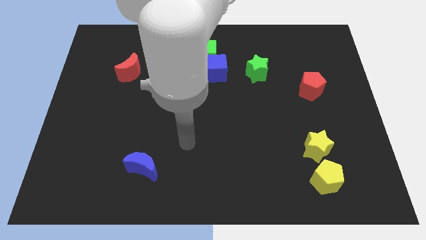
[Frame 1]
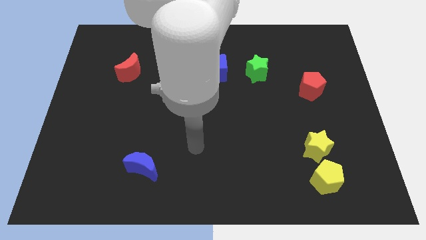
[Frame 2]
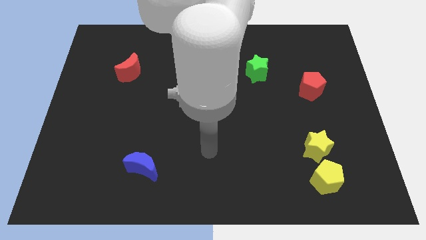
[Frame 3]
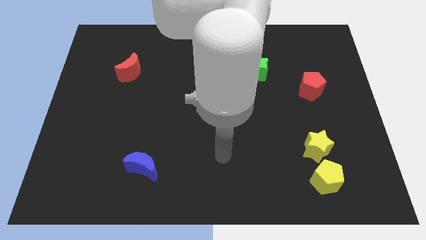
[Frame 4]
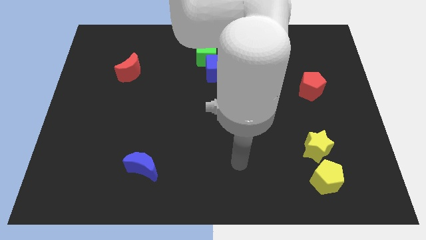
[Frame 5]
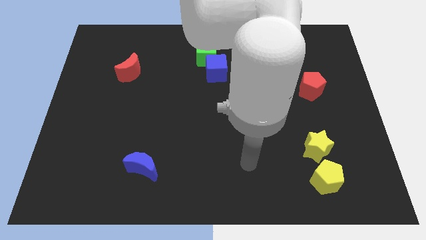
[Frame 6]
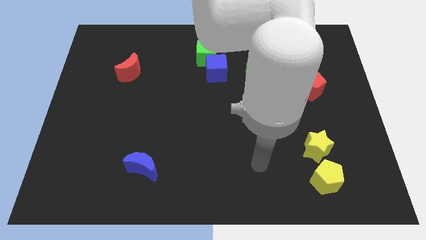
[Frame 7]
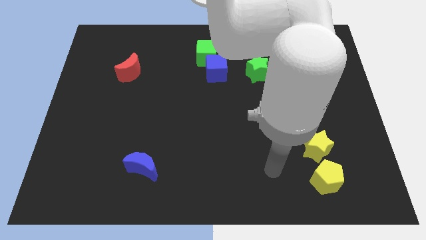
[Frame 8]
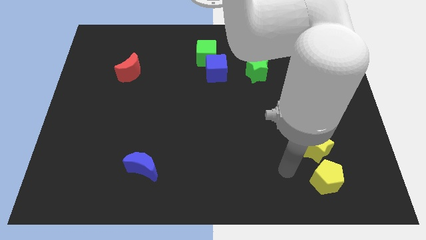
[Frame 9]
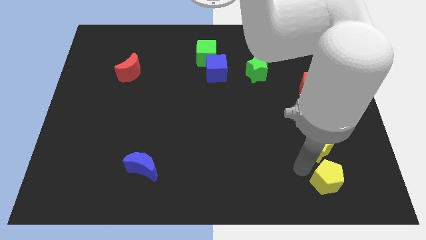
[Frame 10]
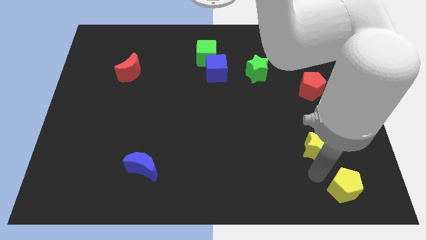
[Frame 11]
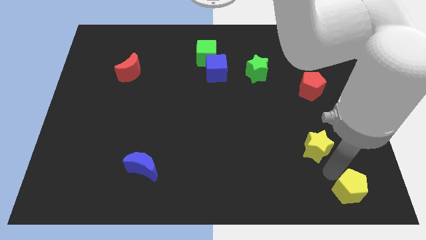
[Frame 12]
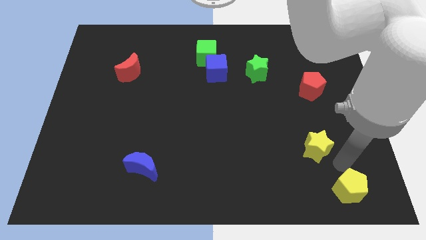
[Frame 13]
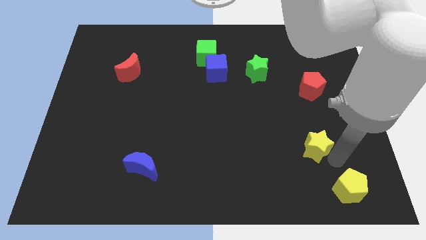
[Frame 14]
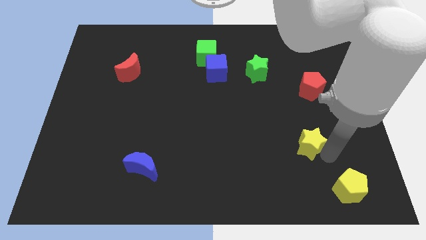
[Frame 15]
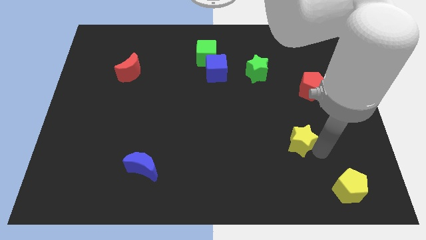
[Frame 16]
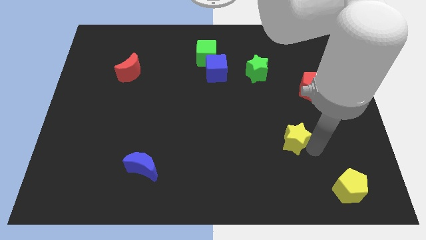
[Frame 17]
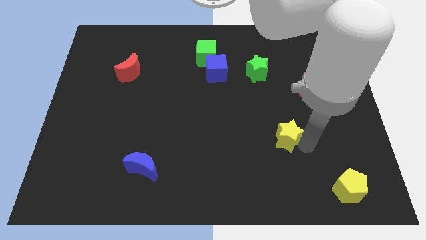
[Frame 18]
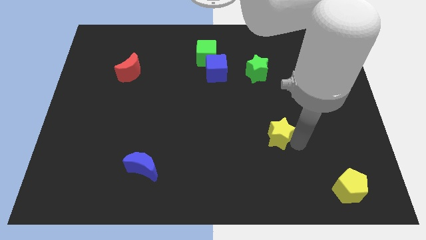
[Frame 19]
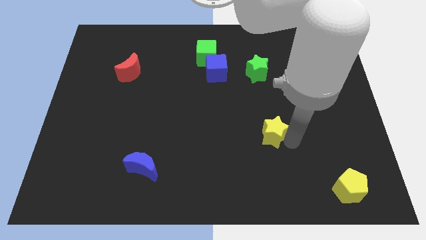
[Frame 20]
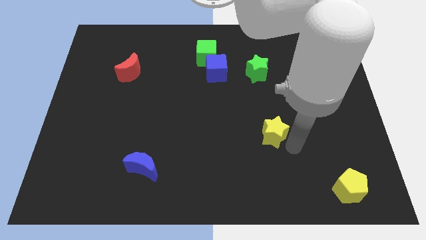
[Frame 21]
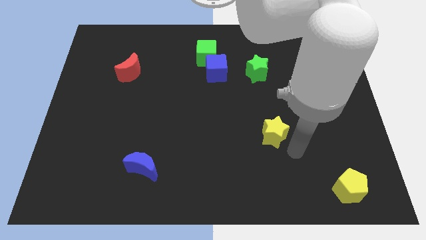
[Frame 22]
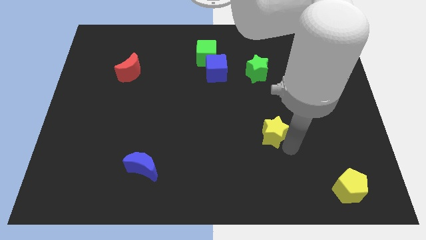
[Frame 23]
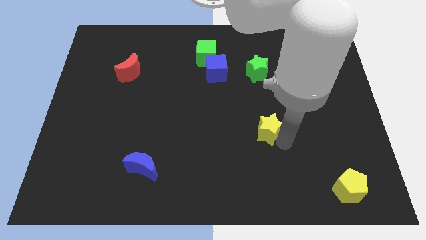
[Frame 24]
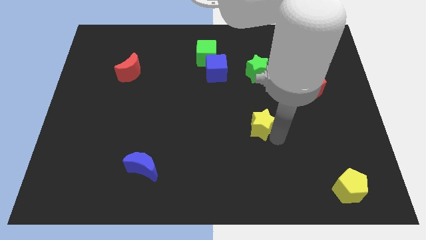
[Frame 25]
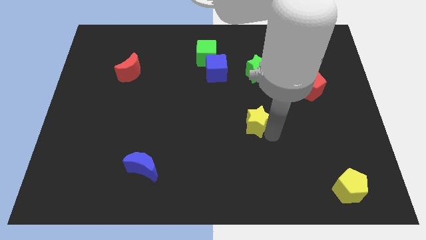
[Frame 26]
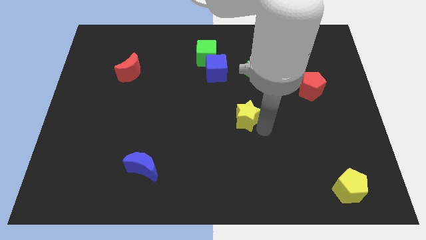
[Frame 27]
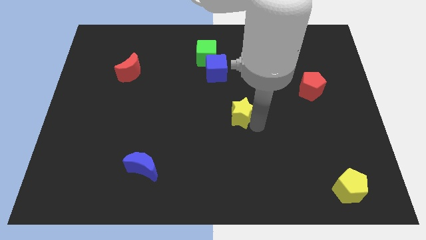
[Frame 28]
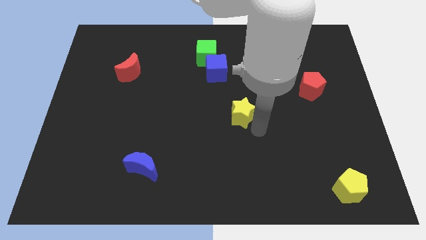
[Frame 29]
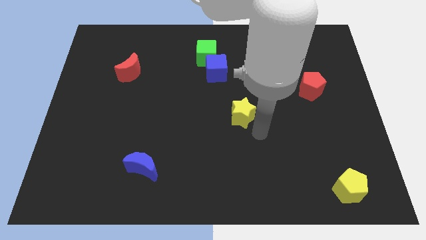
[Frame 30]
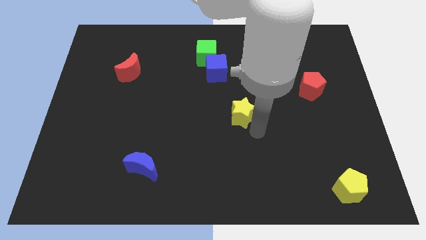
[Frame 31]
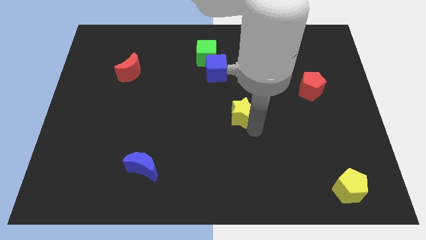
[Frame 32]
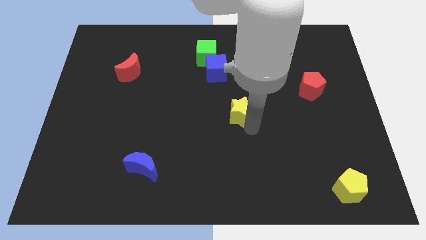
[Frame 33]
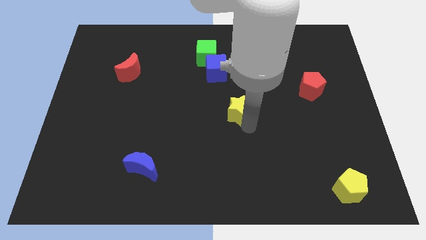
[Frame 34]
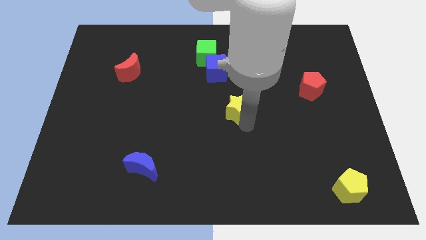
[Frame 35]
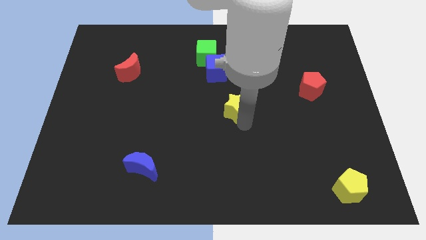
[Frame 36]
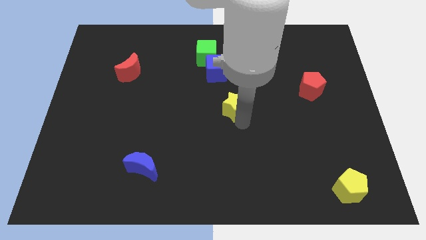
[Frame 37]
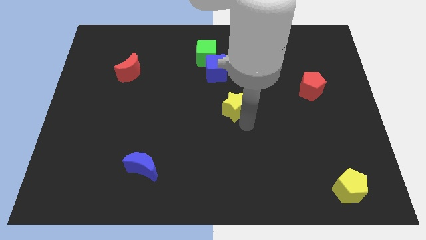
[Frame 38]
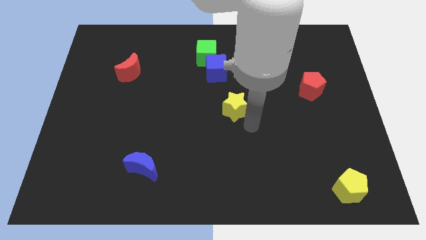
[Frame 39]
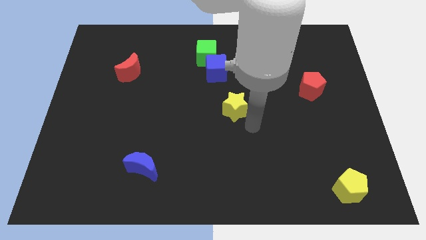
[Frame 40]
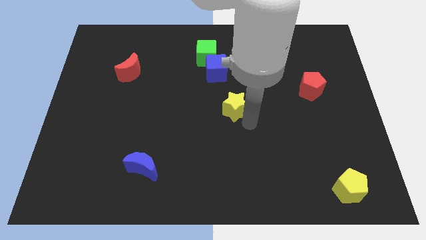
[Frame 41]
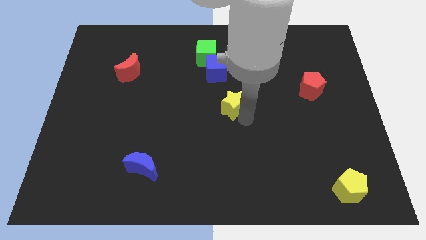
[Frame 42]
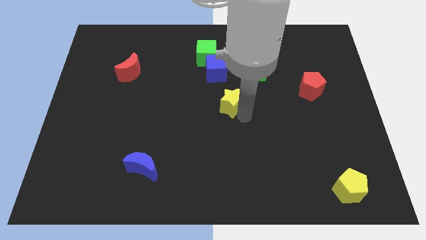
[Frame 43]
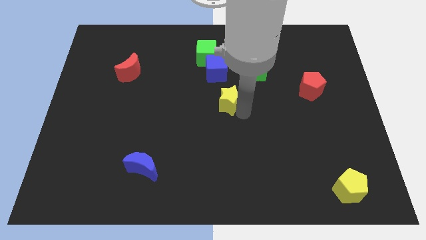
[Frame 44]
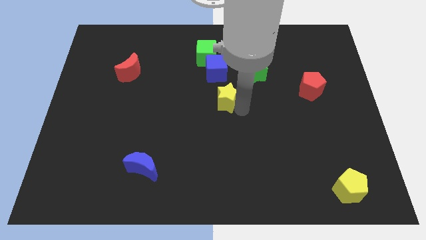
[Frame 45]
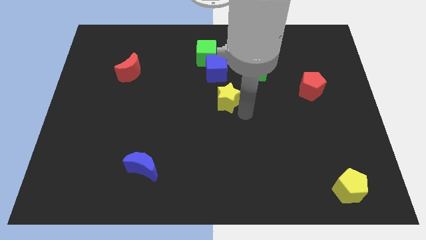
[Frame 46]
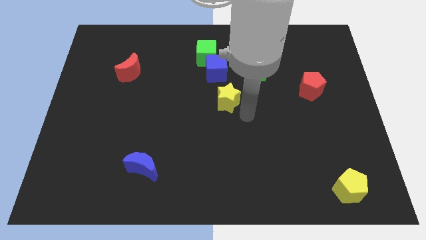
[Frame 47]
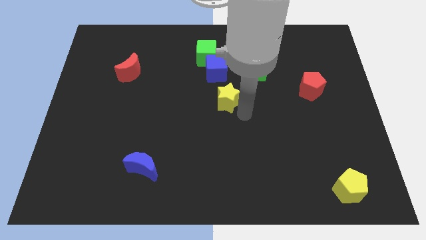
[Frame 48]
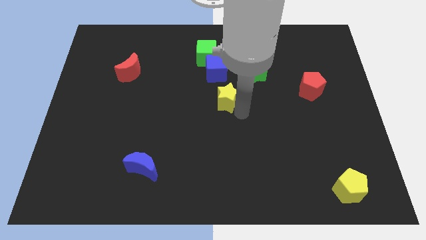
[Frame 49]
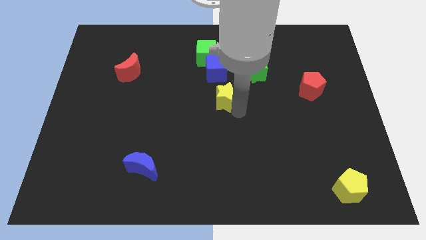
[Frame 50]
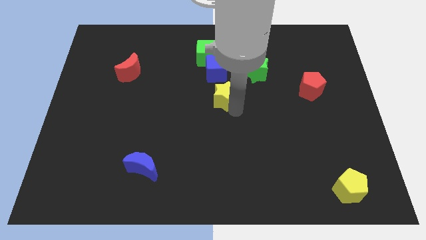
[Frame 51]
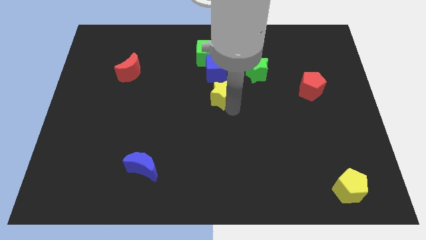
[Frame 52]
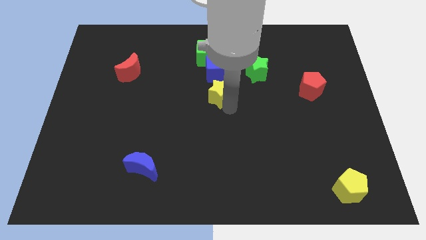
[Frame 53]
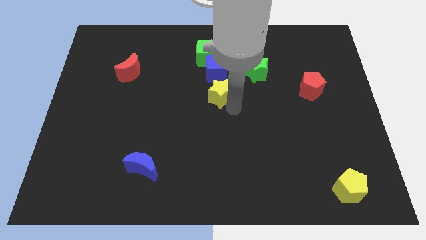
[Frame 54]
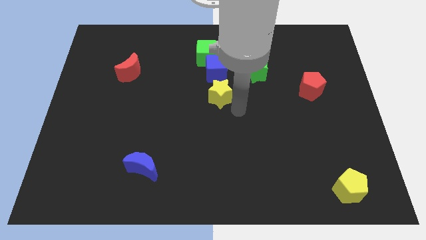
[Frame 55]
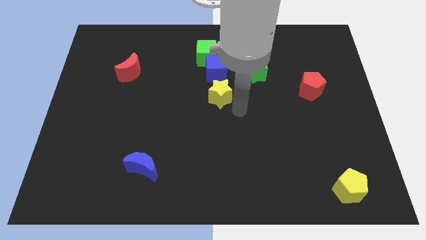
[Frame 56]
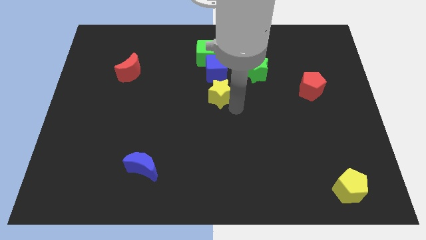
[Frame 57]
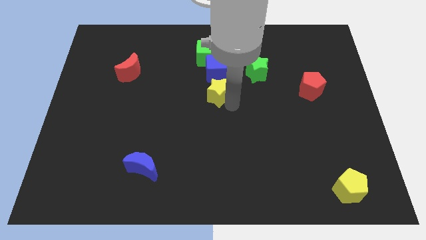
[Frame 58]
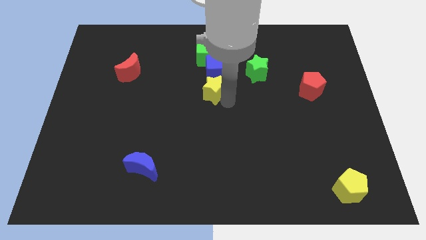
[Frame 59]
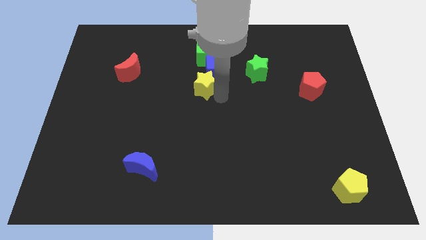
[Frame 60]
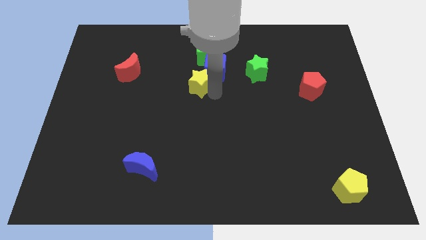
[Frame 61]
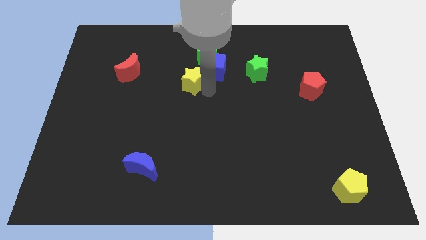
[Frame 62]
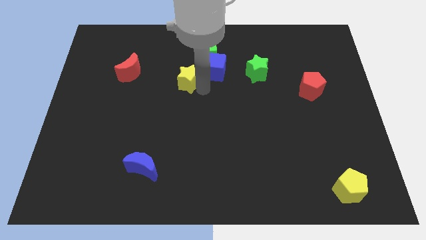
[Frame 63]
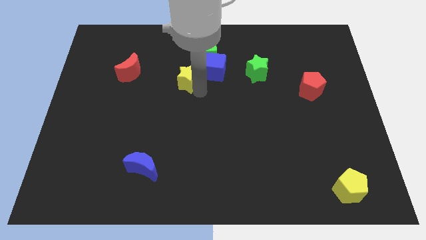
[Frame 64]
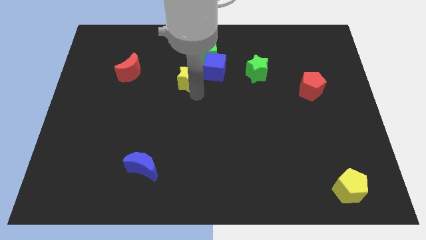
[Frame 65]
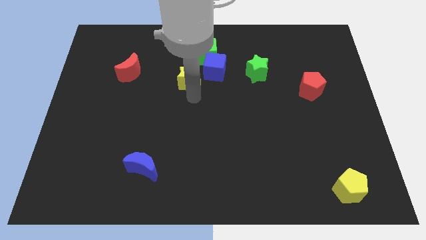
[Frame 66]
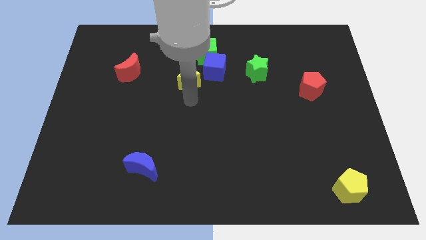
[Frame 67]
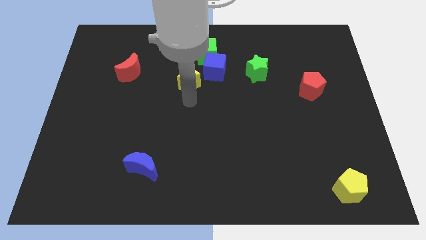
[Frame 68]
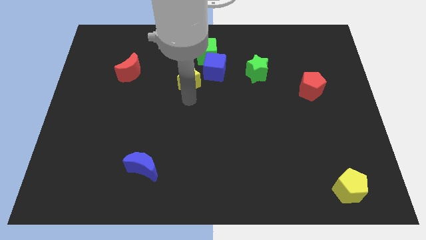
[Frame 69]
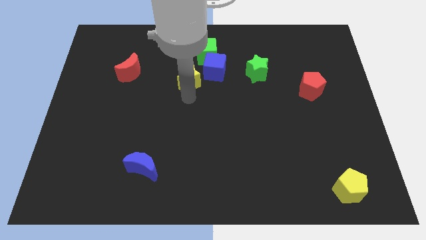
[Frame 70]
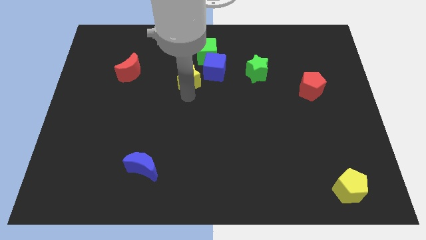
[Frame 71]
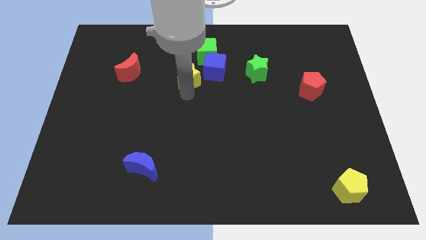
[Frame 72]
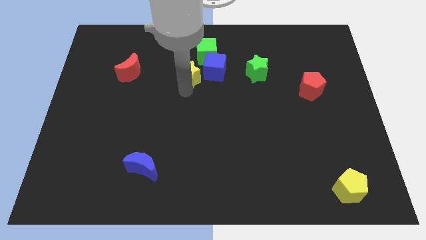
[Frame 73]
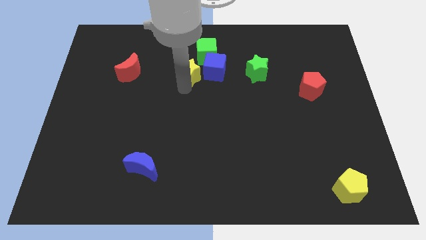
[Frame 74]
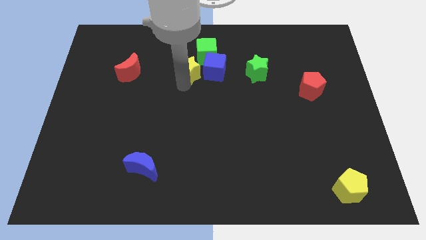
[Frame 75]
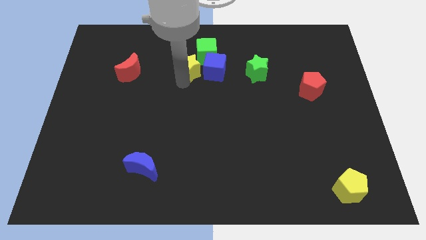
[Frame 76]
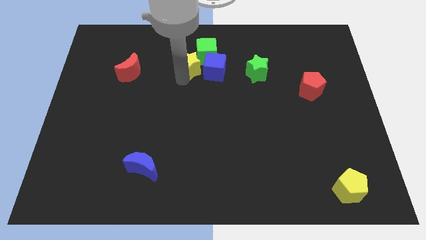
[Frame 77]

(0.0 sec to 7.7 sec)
slide the yellow star to the left side of the green cube
